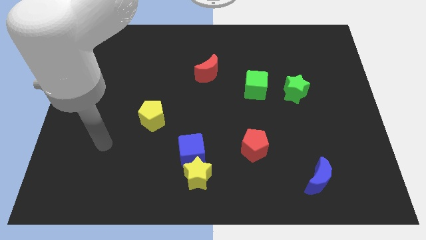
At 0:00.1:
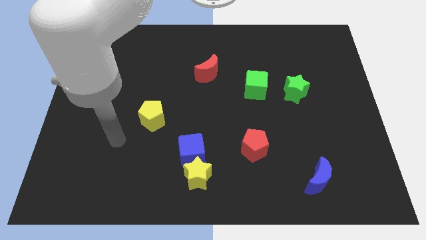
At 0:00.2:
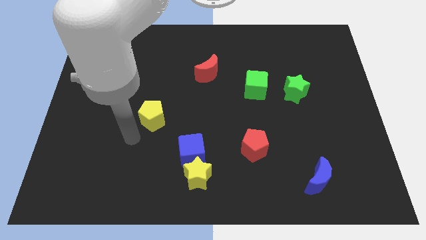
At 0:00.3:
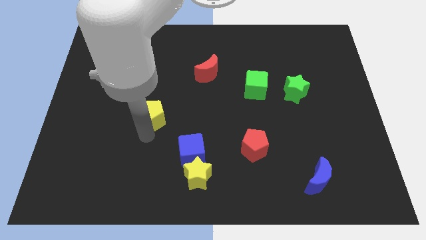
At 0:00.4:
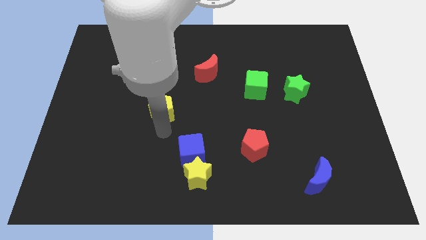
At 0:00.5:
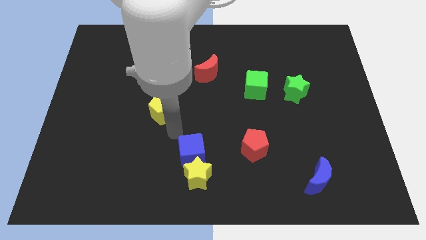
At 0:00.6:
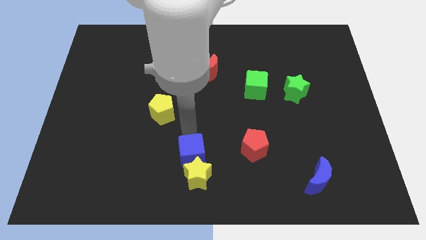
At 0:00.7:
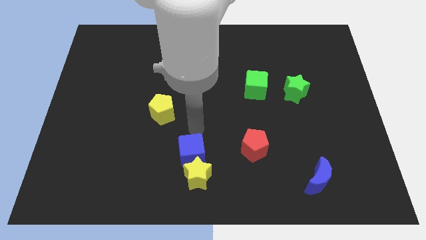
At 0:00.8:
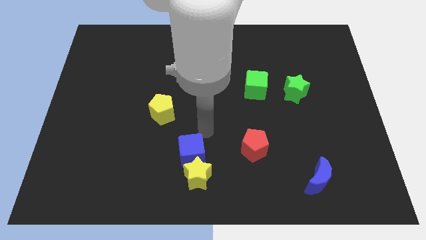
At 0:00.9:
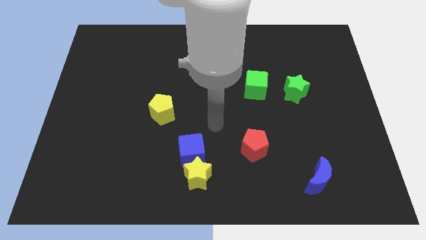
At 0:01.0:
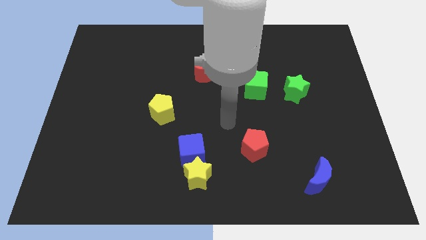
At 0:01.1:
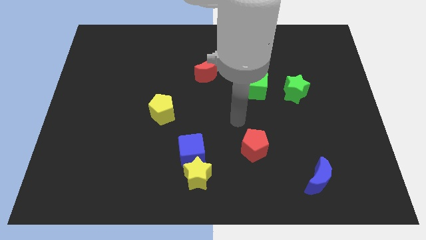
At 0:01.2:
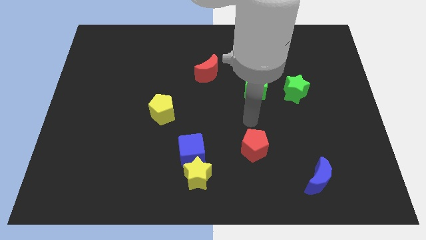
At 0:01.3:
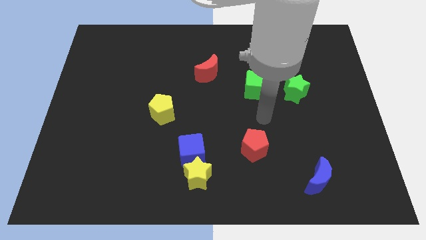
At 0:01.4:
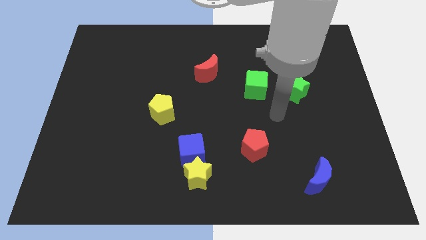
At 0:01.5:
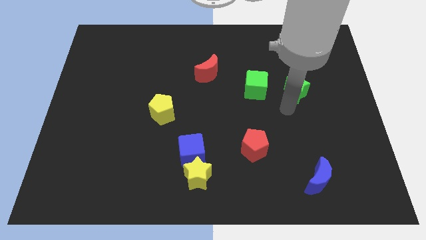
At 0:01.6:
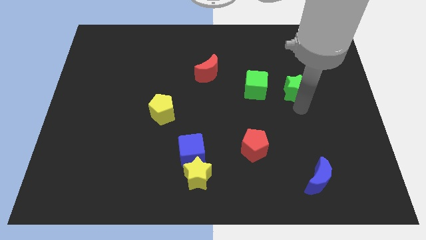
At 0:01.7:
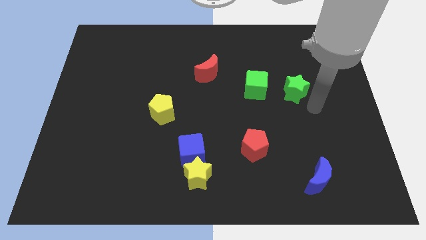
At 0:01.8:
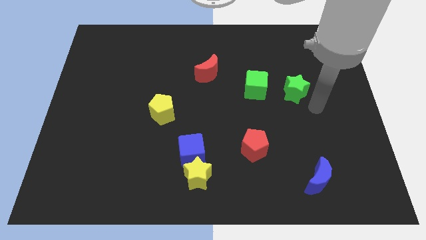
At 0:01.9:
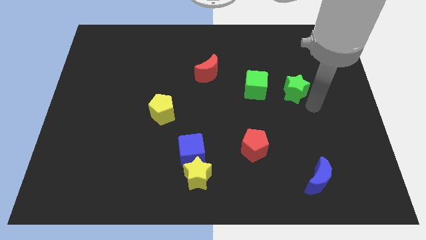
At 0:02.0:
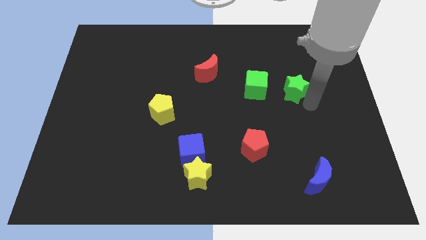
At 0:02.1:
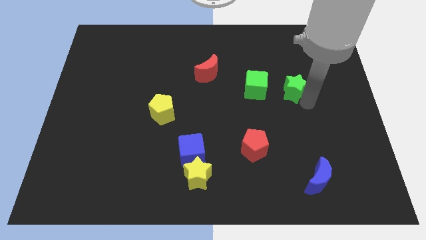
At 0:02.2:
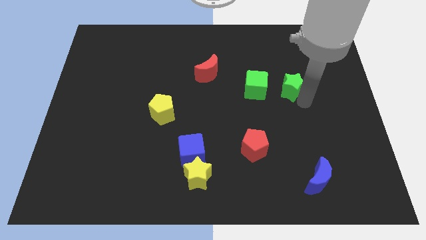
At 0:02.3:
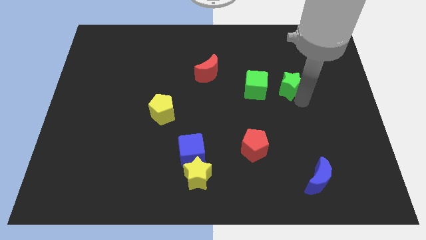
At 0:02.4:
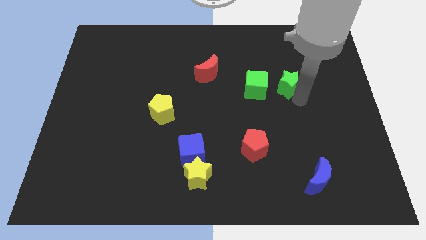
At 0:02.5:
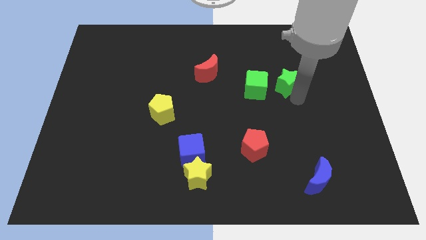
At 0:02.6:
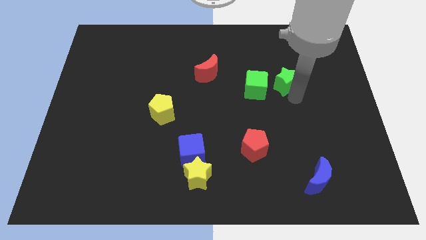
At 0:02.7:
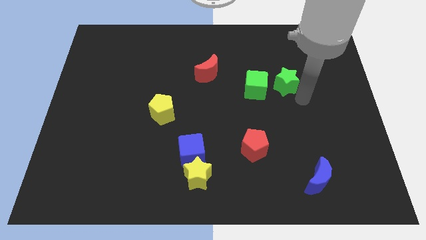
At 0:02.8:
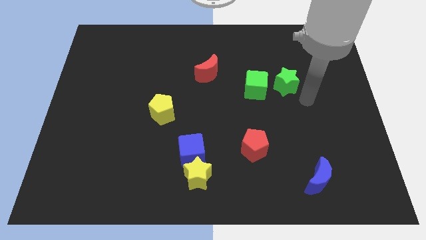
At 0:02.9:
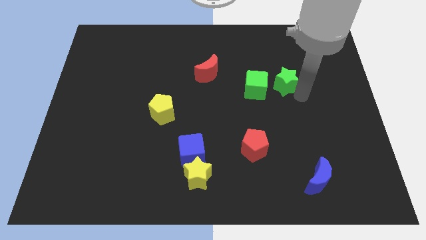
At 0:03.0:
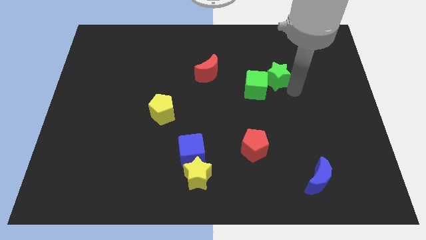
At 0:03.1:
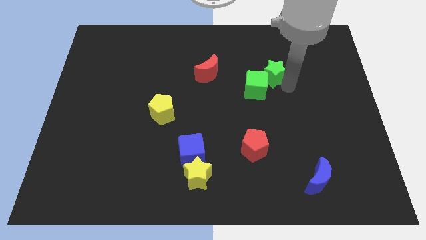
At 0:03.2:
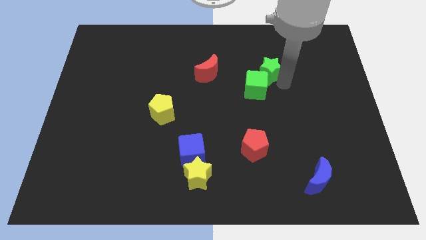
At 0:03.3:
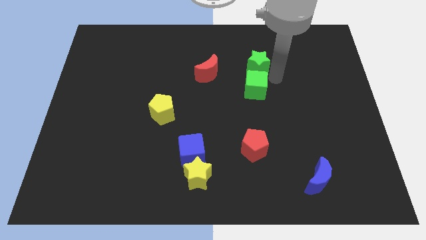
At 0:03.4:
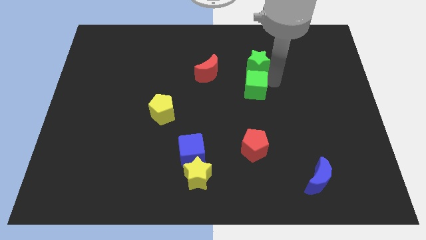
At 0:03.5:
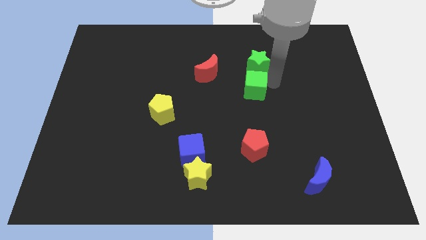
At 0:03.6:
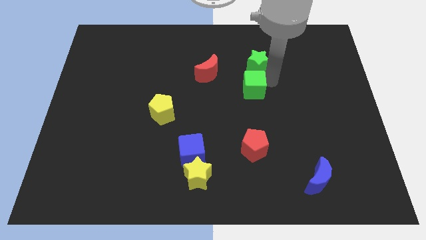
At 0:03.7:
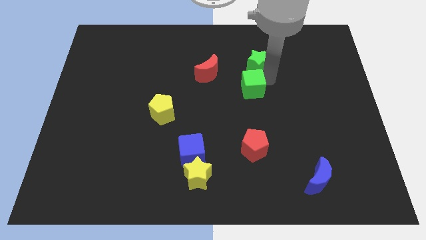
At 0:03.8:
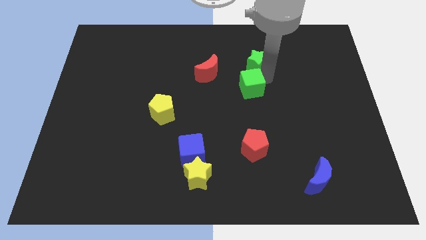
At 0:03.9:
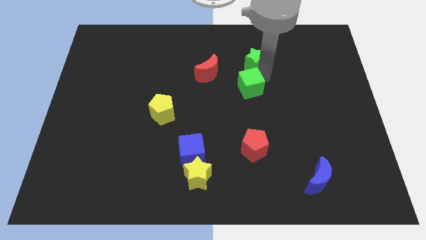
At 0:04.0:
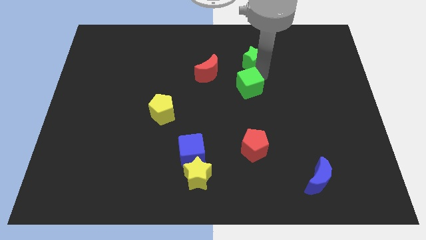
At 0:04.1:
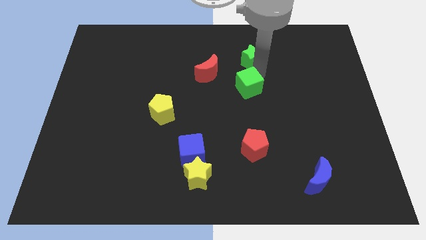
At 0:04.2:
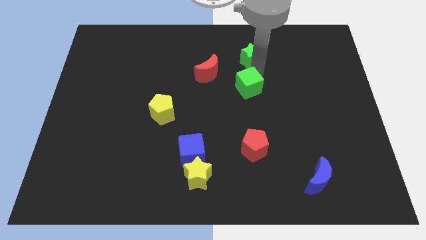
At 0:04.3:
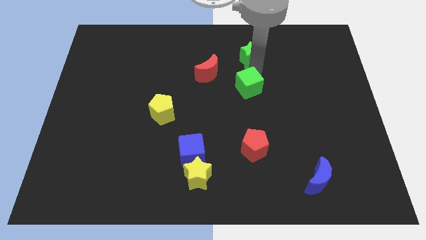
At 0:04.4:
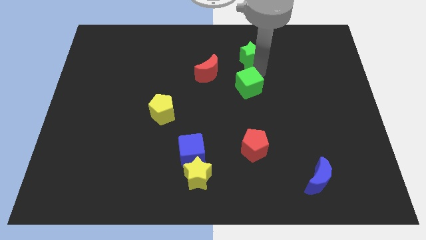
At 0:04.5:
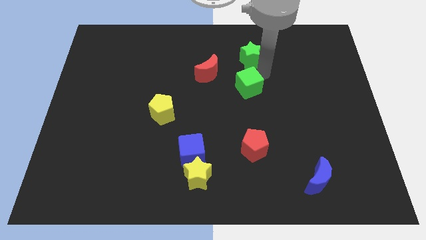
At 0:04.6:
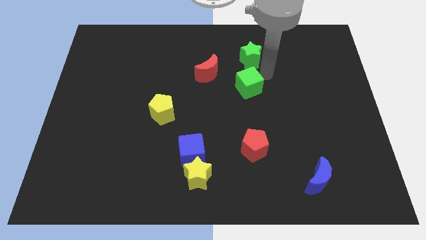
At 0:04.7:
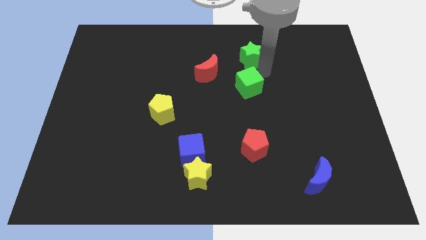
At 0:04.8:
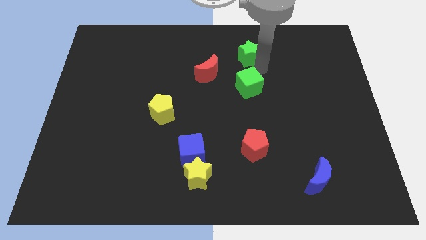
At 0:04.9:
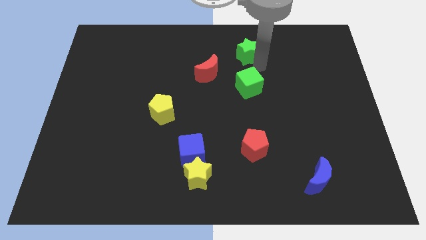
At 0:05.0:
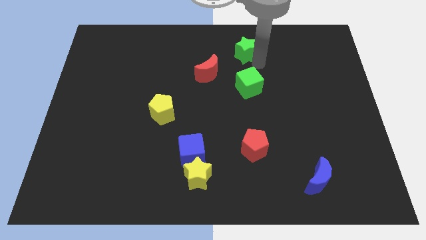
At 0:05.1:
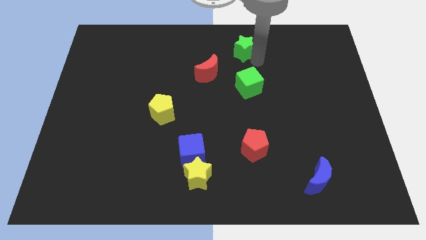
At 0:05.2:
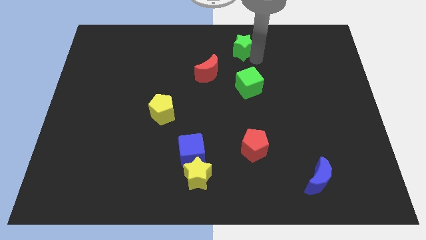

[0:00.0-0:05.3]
move the green star to the top side
